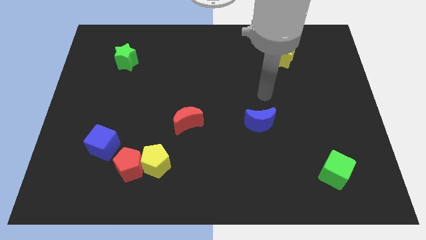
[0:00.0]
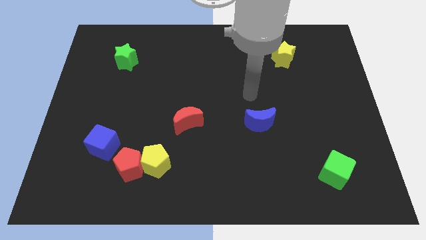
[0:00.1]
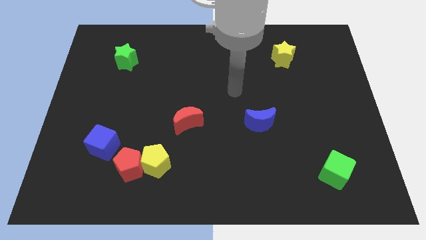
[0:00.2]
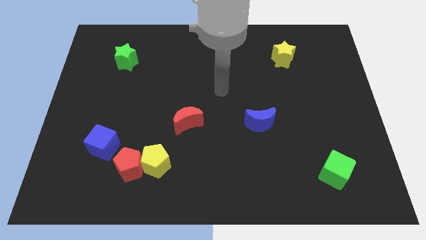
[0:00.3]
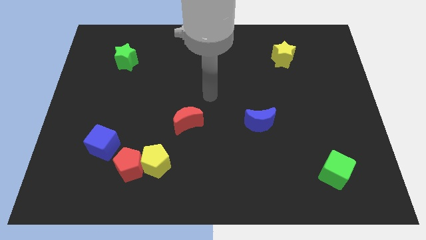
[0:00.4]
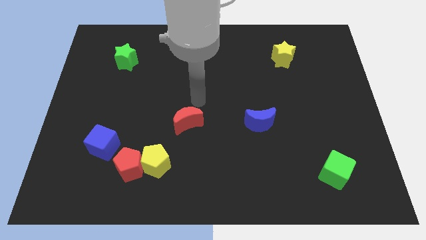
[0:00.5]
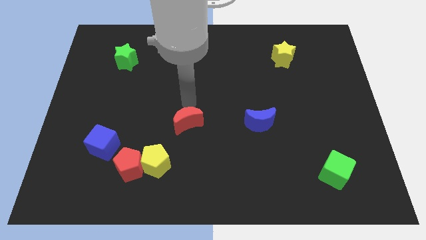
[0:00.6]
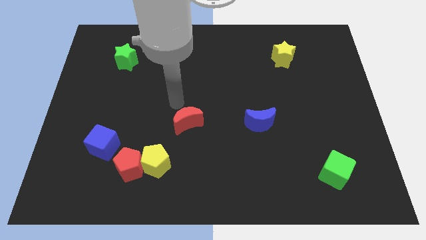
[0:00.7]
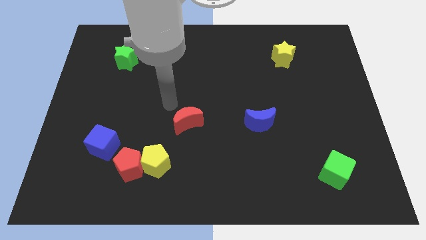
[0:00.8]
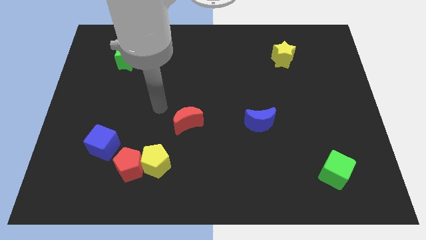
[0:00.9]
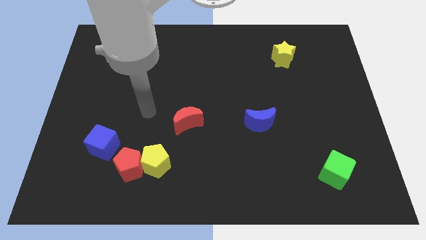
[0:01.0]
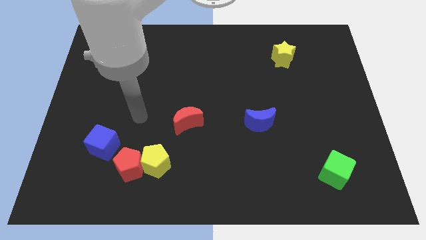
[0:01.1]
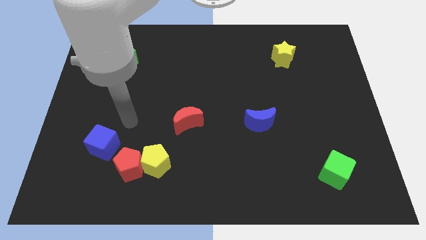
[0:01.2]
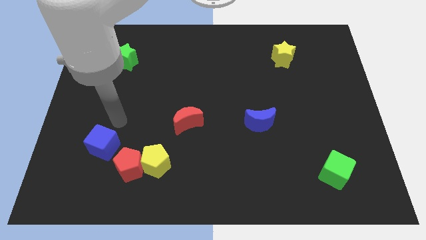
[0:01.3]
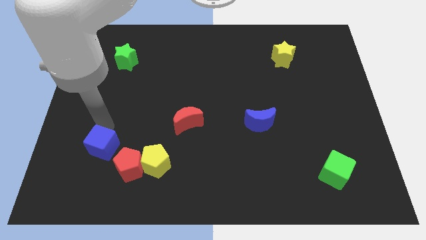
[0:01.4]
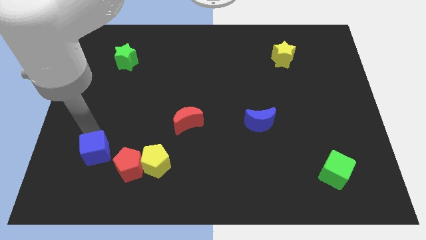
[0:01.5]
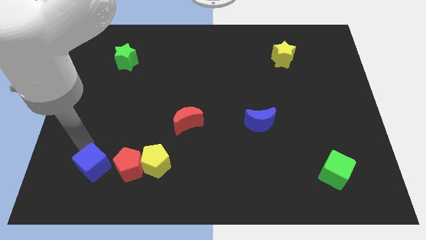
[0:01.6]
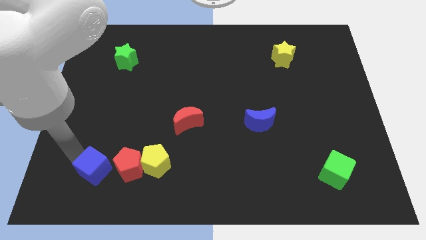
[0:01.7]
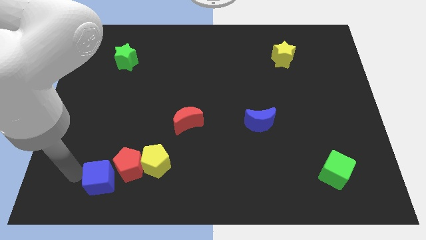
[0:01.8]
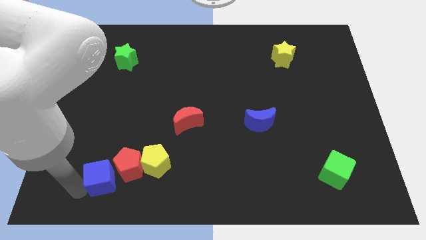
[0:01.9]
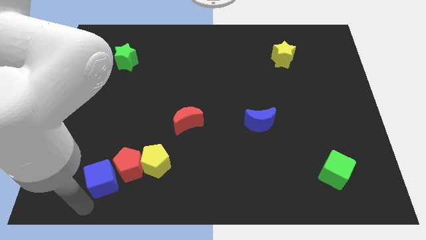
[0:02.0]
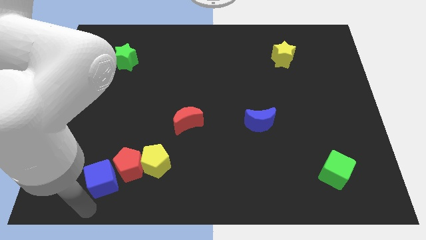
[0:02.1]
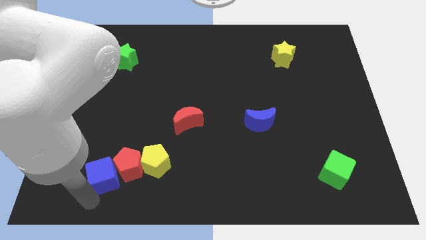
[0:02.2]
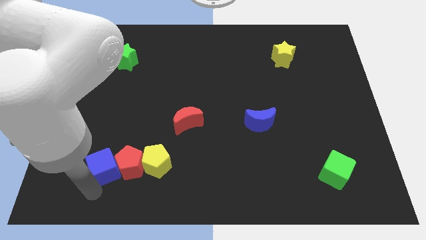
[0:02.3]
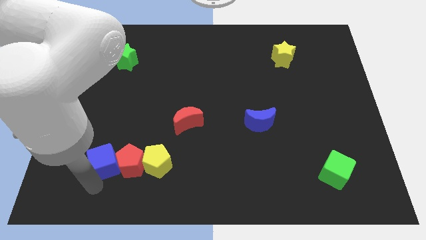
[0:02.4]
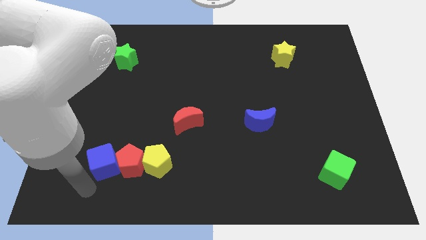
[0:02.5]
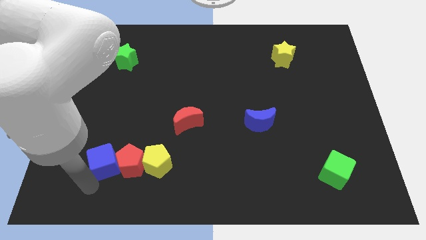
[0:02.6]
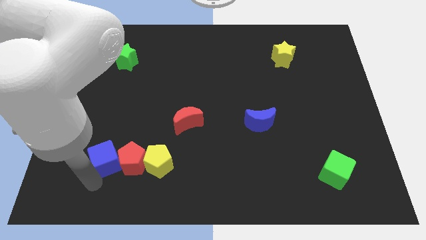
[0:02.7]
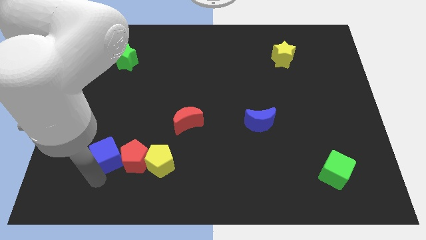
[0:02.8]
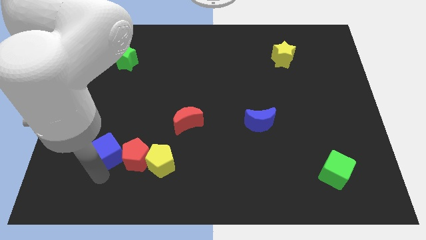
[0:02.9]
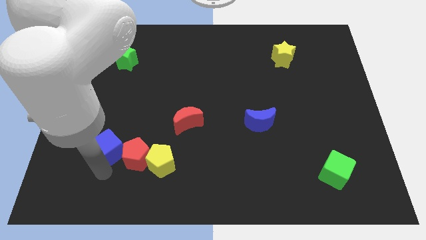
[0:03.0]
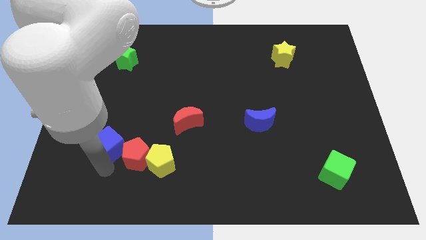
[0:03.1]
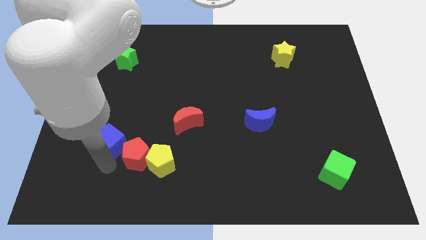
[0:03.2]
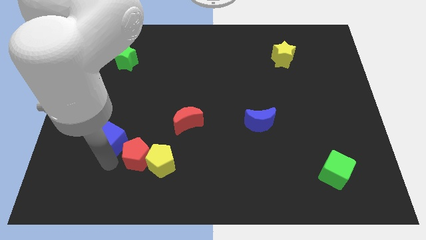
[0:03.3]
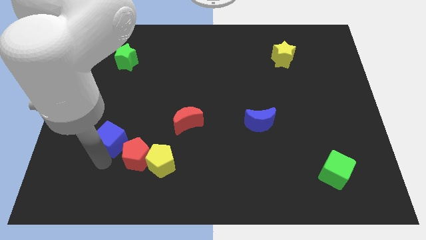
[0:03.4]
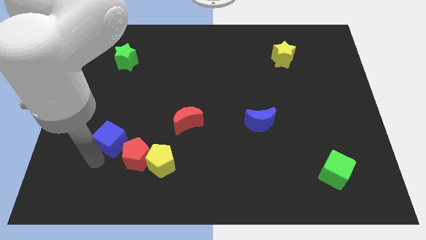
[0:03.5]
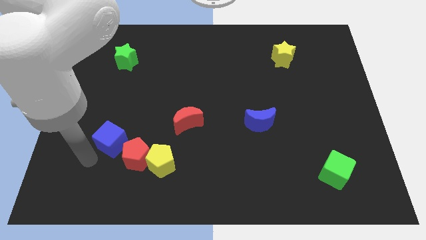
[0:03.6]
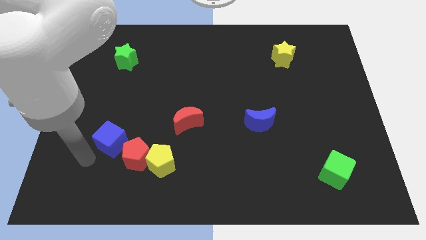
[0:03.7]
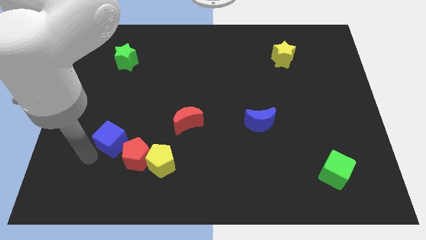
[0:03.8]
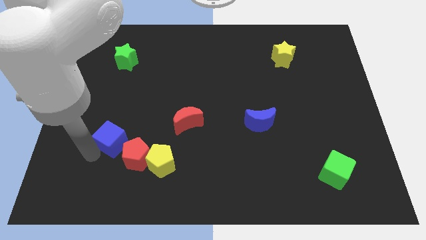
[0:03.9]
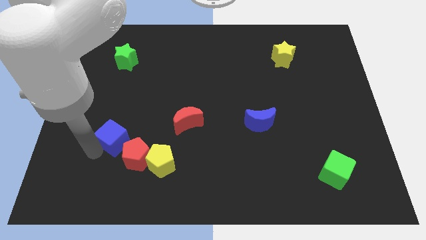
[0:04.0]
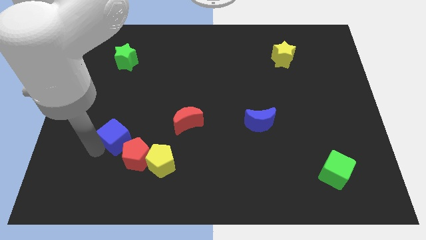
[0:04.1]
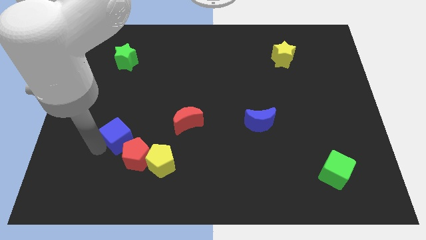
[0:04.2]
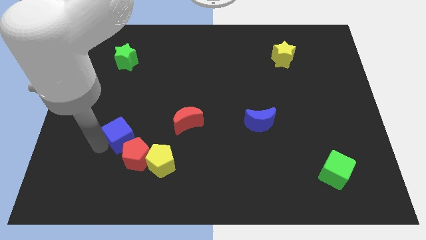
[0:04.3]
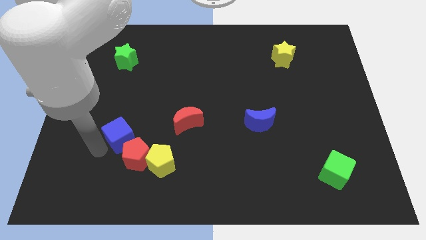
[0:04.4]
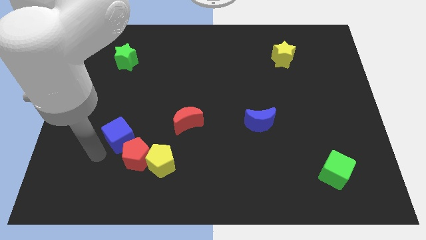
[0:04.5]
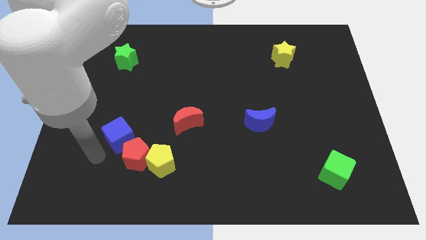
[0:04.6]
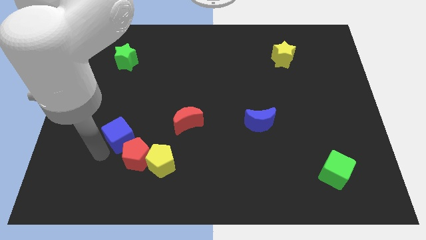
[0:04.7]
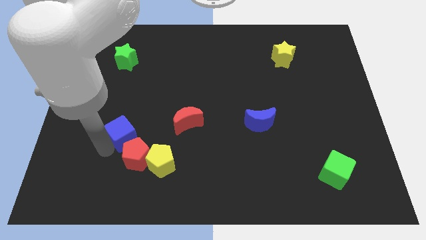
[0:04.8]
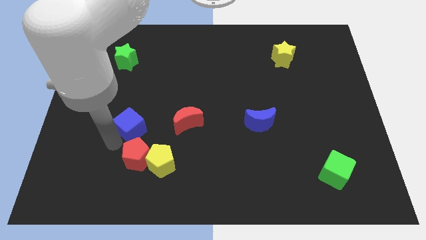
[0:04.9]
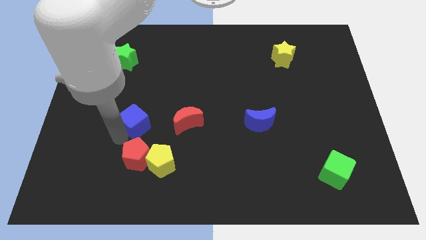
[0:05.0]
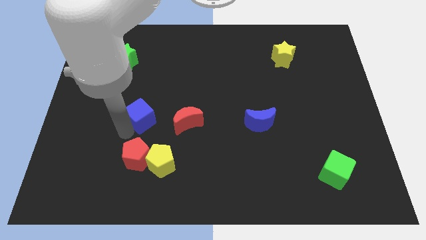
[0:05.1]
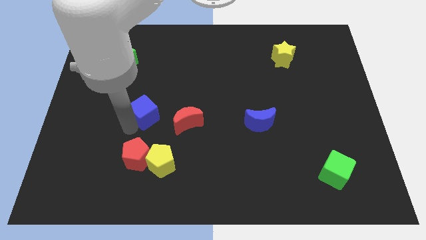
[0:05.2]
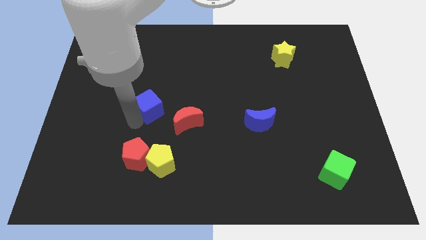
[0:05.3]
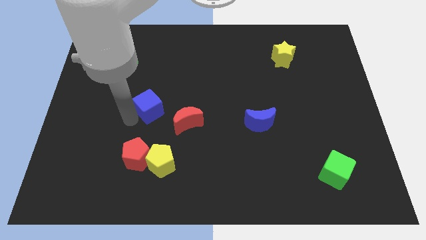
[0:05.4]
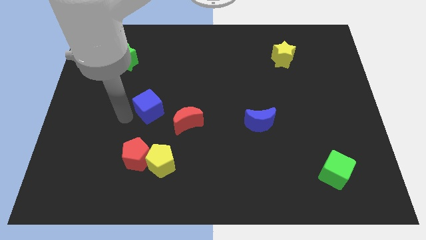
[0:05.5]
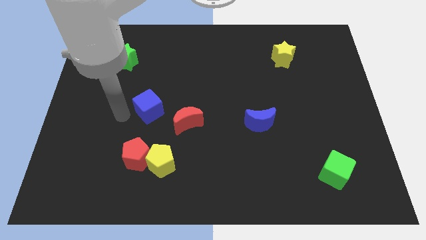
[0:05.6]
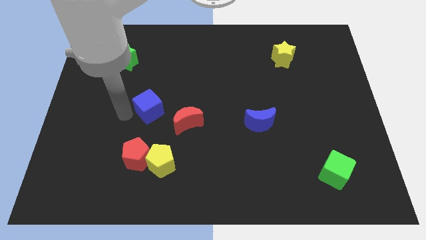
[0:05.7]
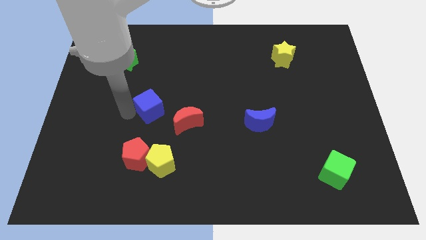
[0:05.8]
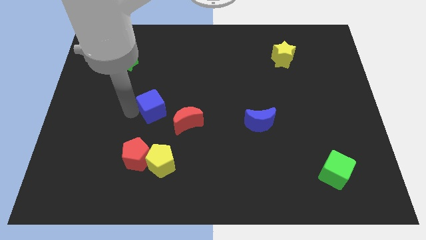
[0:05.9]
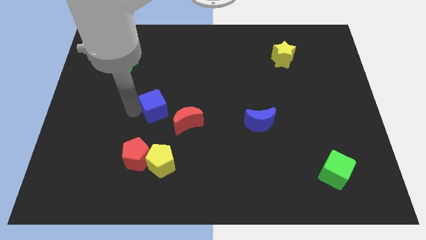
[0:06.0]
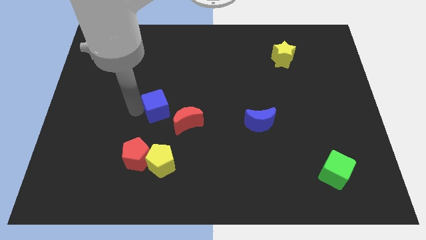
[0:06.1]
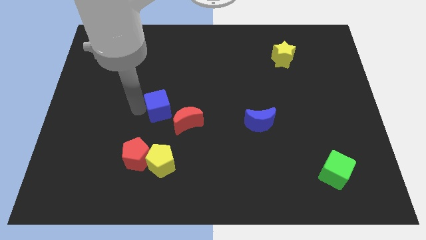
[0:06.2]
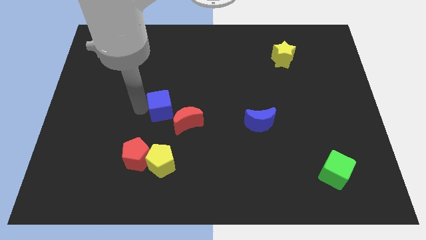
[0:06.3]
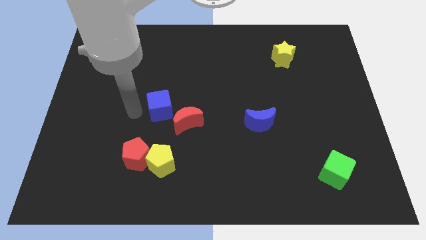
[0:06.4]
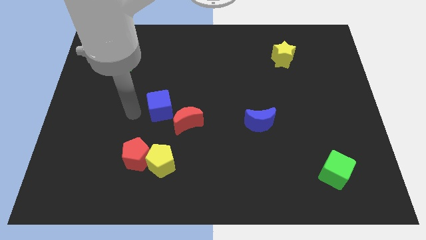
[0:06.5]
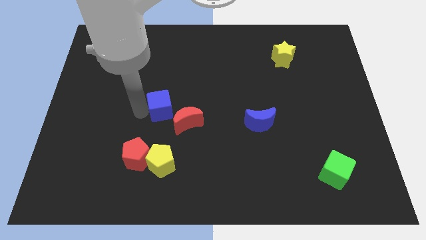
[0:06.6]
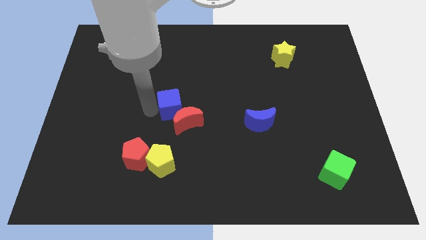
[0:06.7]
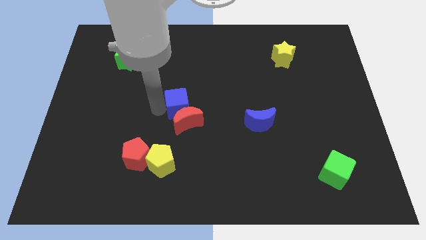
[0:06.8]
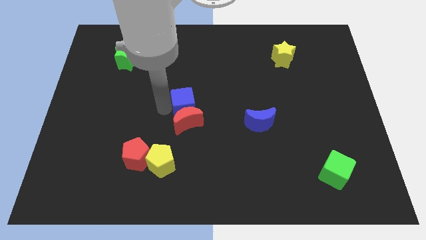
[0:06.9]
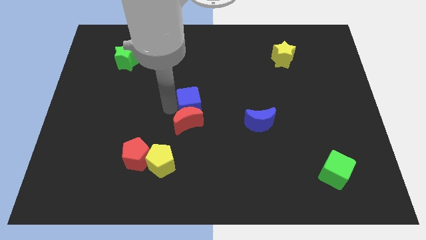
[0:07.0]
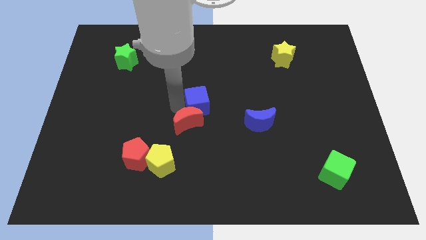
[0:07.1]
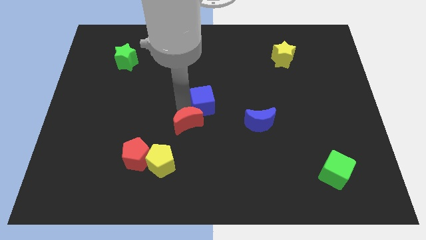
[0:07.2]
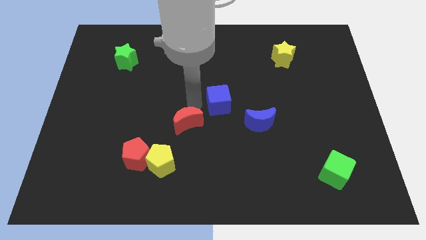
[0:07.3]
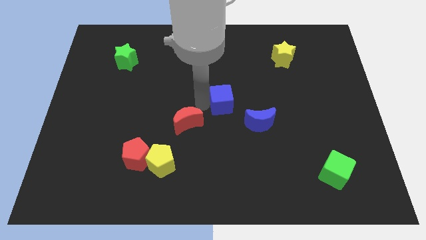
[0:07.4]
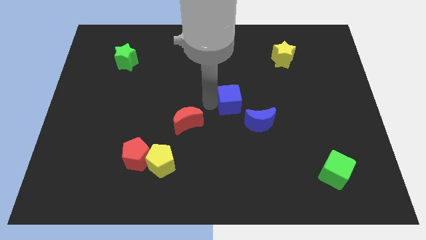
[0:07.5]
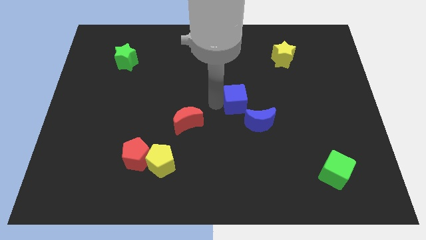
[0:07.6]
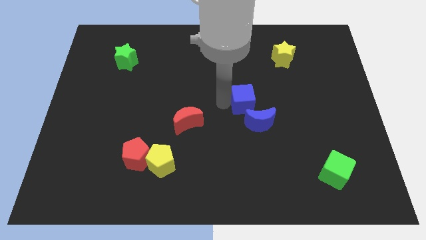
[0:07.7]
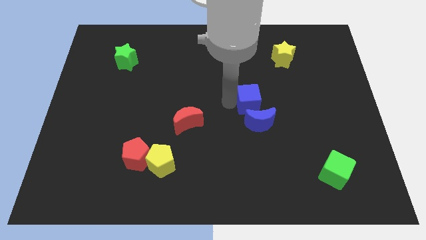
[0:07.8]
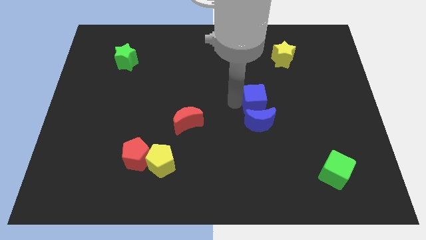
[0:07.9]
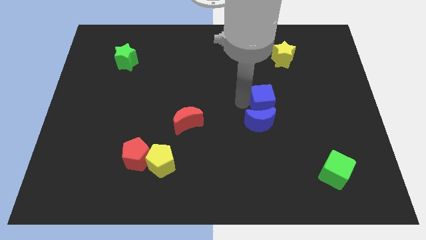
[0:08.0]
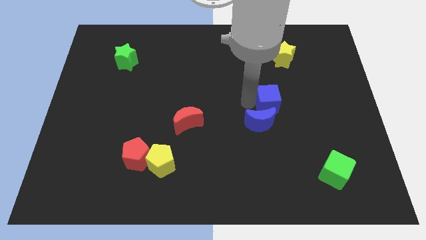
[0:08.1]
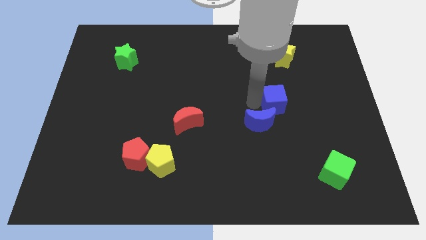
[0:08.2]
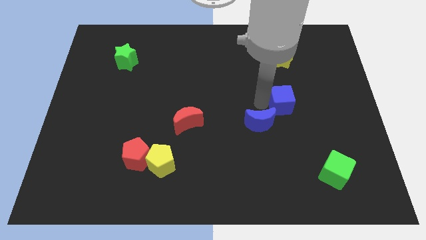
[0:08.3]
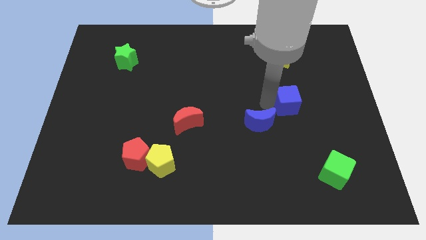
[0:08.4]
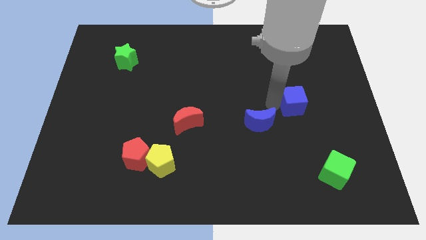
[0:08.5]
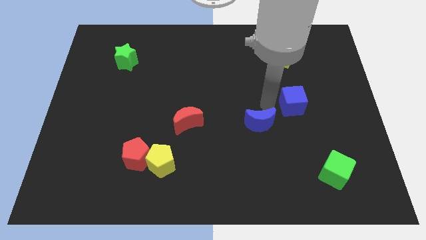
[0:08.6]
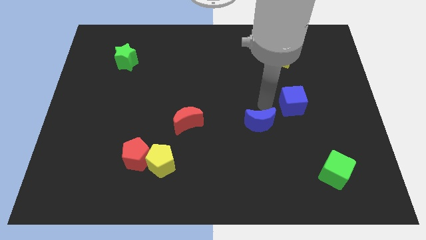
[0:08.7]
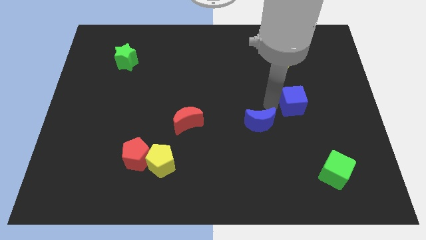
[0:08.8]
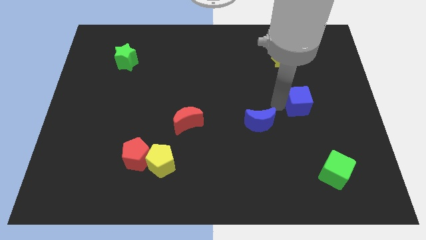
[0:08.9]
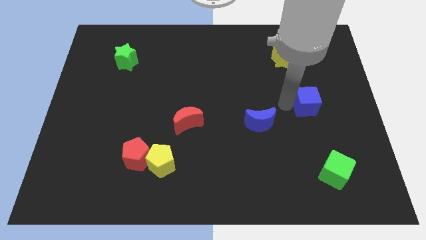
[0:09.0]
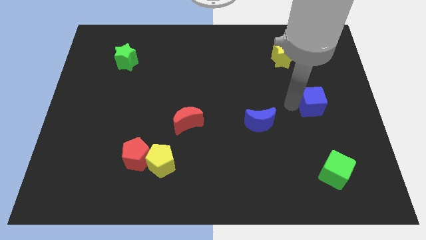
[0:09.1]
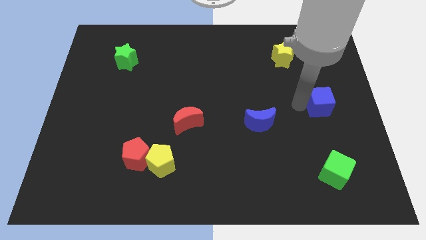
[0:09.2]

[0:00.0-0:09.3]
push the blue cube to the center right
